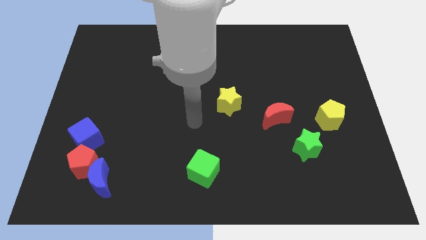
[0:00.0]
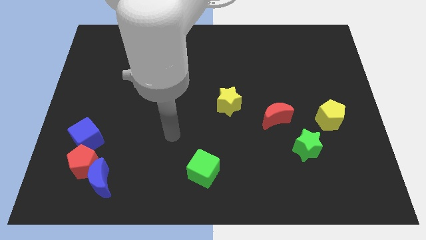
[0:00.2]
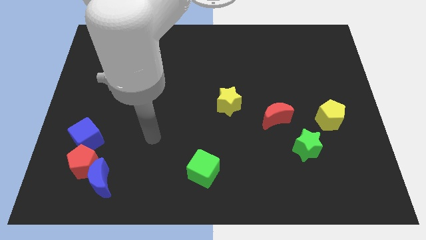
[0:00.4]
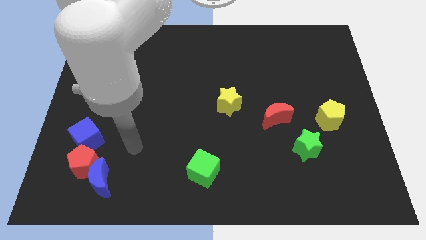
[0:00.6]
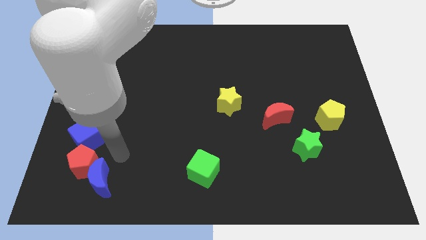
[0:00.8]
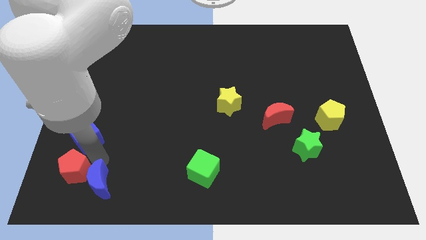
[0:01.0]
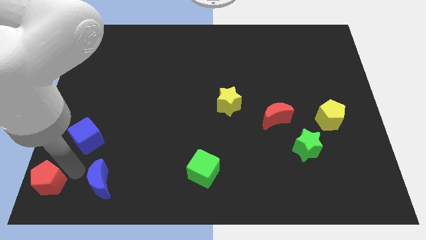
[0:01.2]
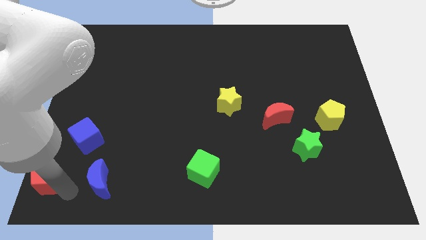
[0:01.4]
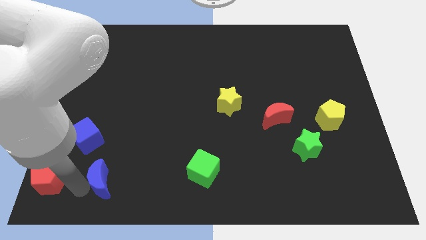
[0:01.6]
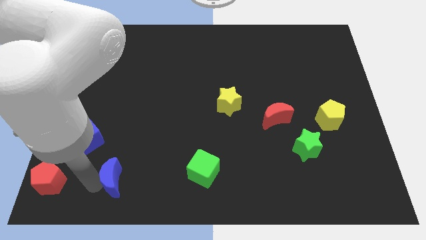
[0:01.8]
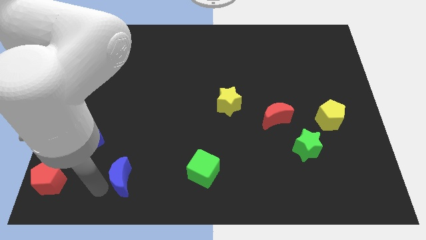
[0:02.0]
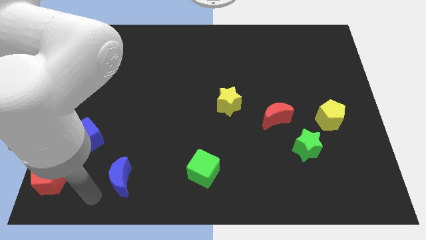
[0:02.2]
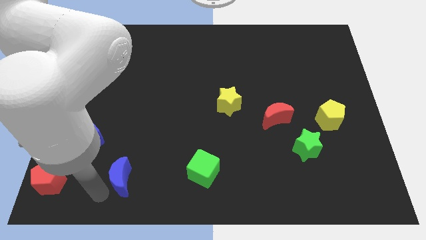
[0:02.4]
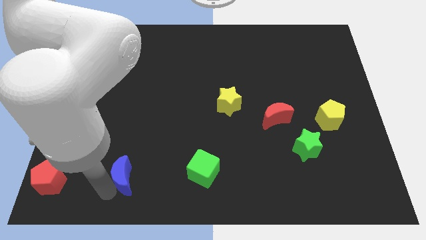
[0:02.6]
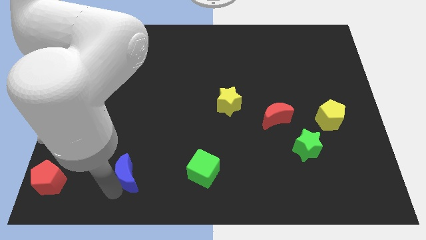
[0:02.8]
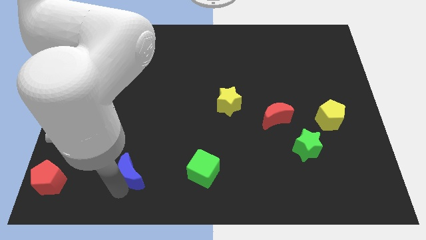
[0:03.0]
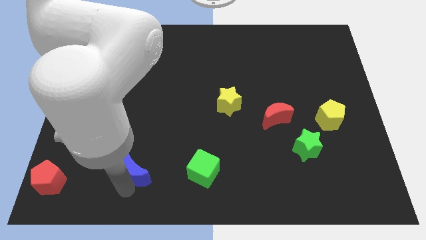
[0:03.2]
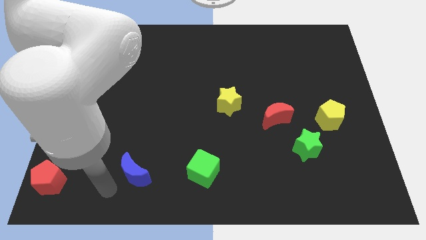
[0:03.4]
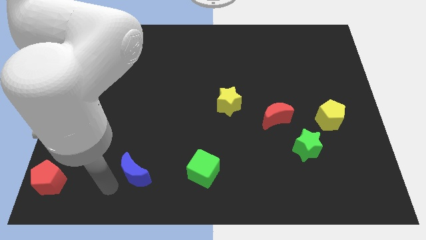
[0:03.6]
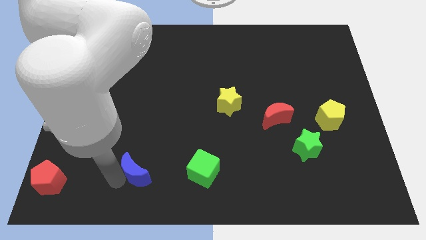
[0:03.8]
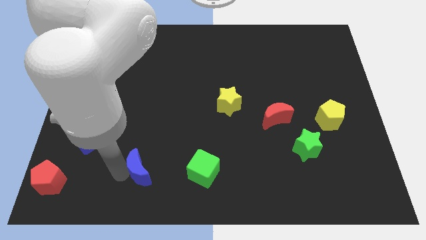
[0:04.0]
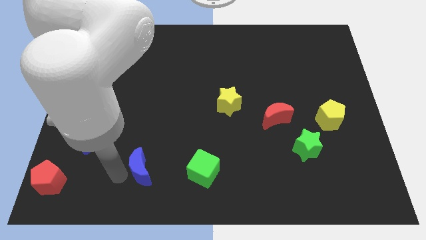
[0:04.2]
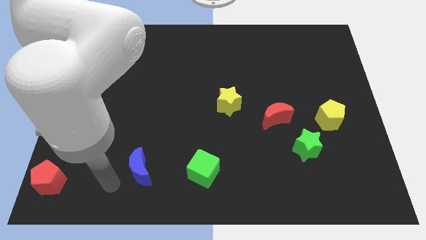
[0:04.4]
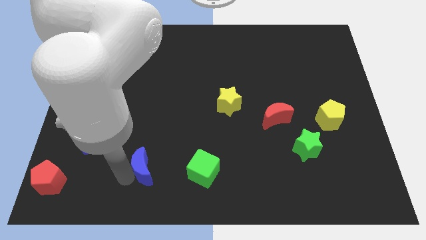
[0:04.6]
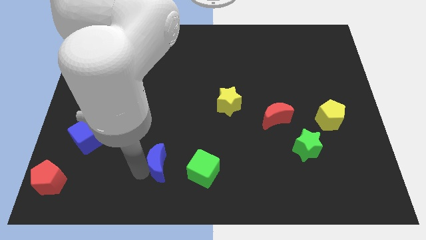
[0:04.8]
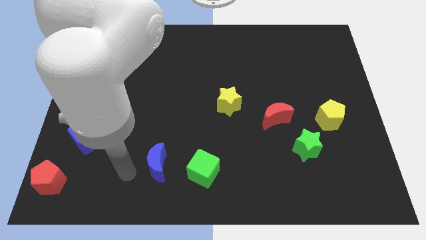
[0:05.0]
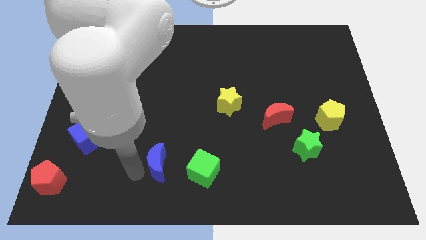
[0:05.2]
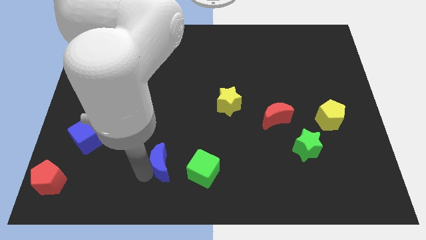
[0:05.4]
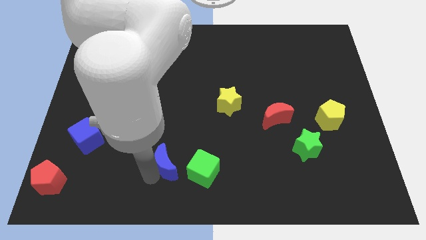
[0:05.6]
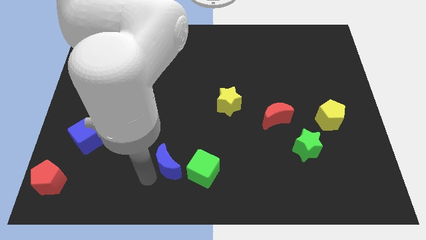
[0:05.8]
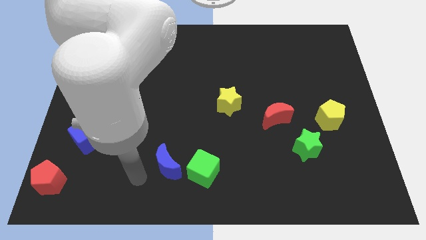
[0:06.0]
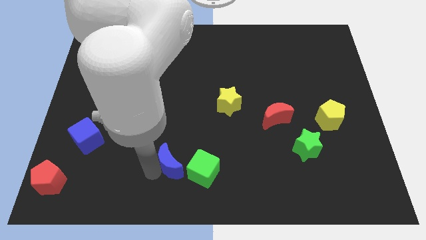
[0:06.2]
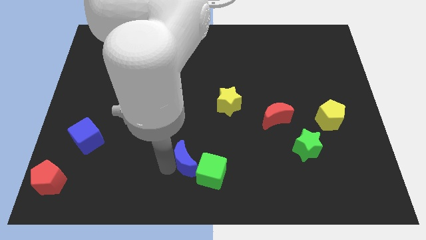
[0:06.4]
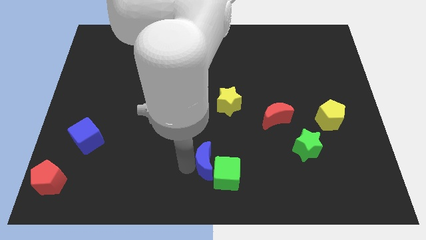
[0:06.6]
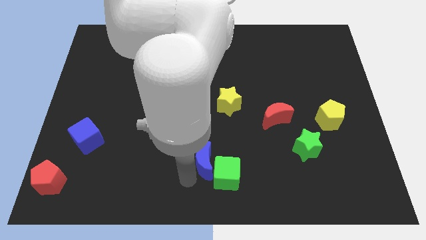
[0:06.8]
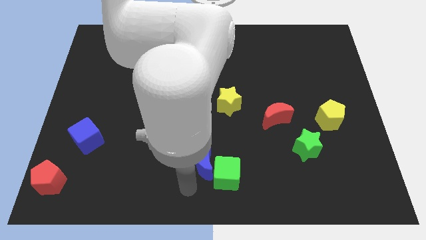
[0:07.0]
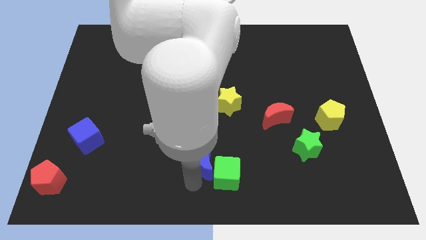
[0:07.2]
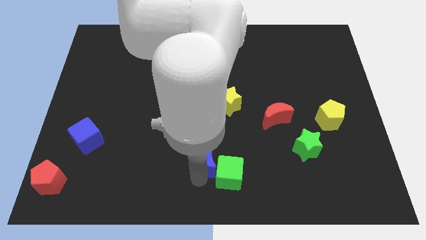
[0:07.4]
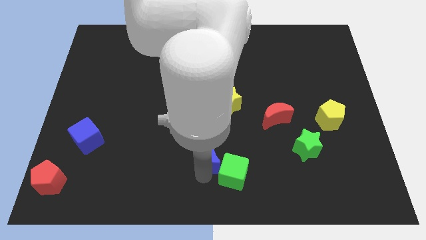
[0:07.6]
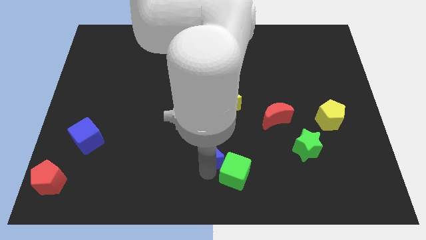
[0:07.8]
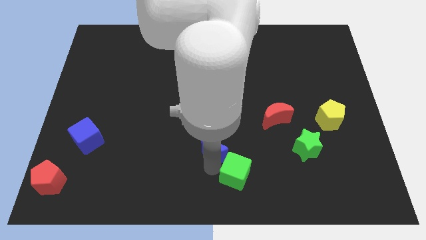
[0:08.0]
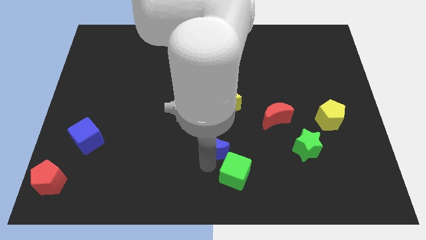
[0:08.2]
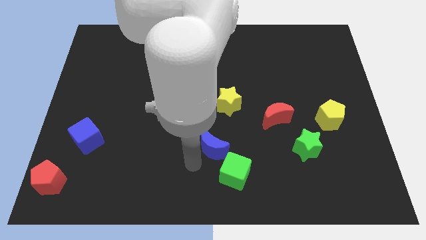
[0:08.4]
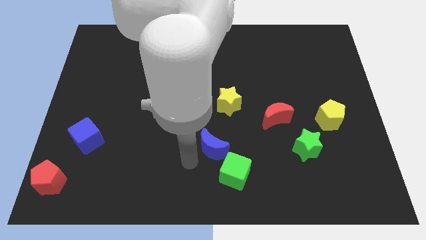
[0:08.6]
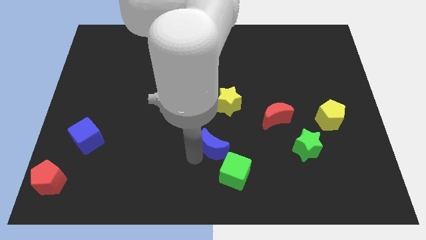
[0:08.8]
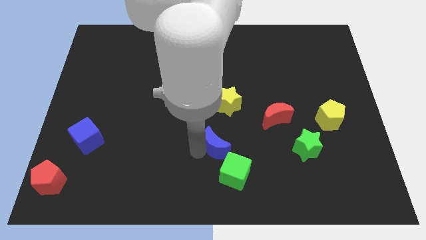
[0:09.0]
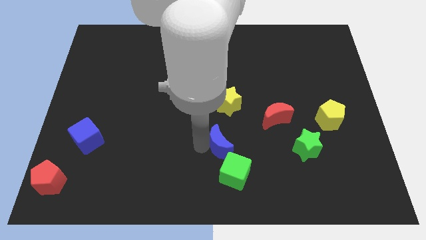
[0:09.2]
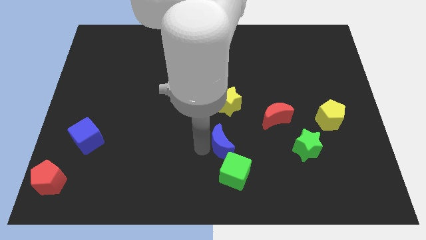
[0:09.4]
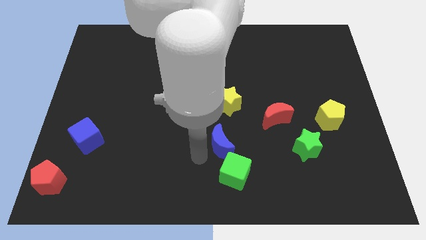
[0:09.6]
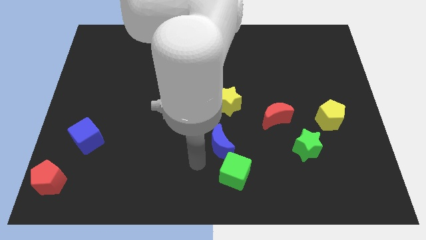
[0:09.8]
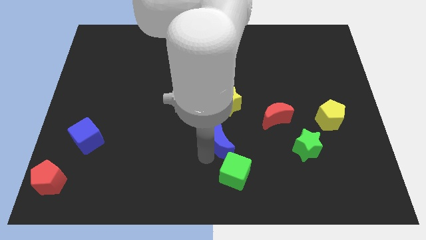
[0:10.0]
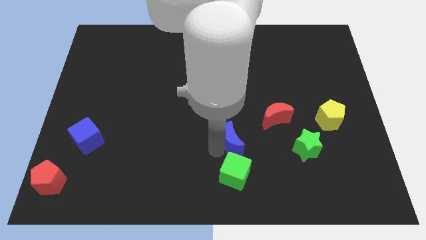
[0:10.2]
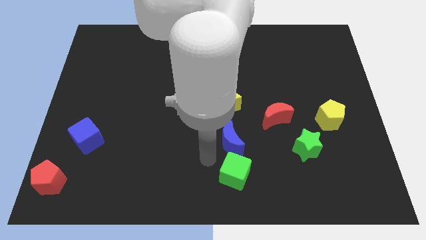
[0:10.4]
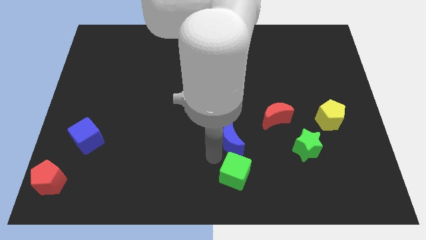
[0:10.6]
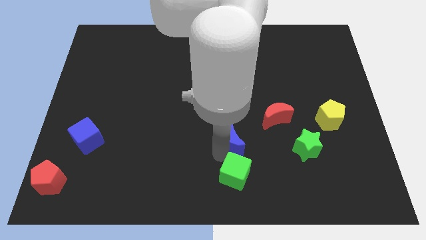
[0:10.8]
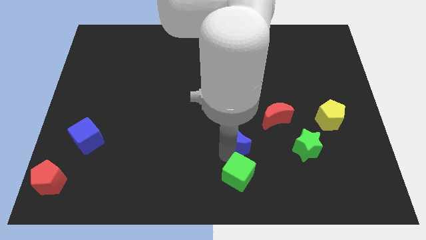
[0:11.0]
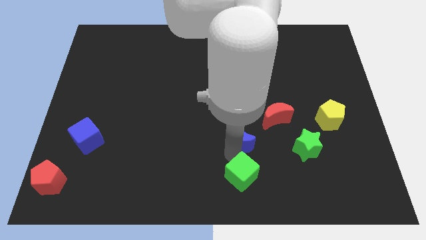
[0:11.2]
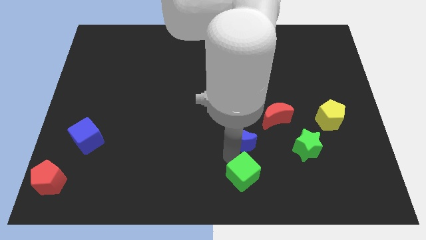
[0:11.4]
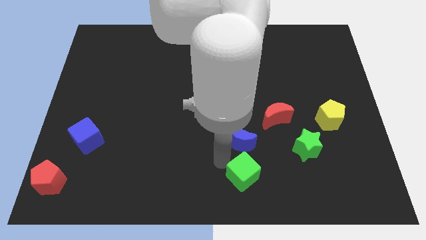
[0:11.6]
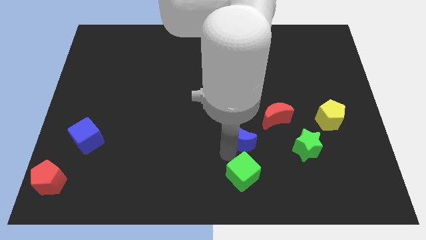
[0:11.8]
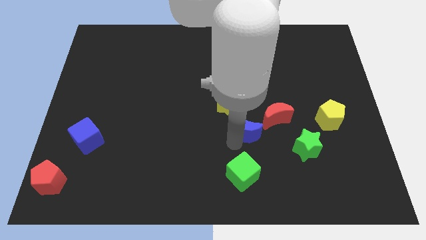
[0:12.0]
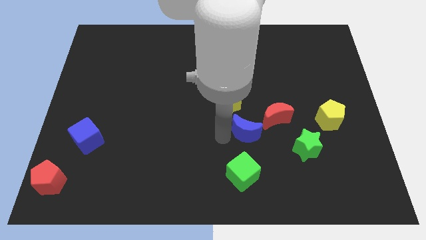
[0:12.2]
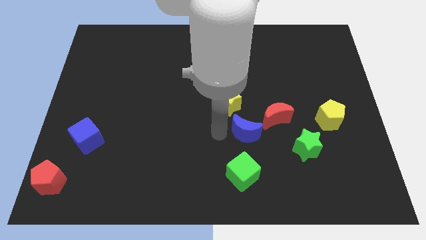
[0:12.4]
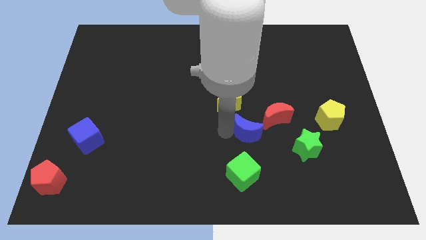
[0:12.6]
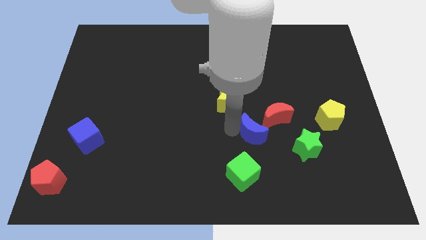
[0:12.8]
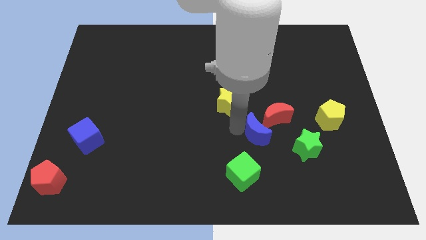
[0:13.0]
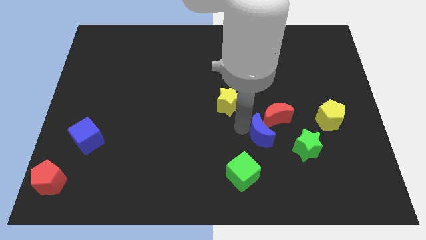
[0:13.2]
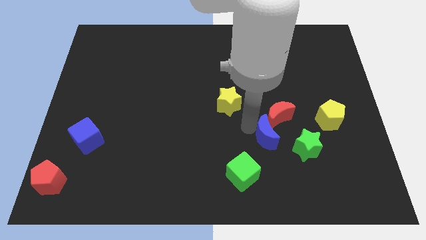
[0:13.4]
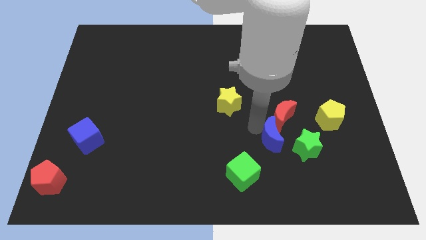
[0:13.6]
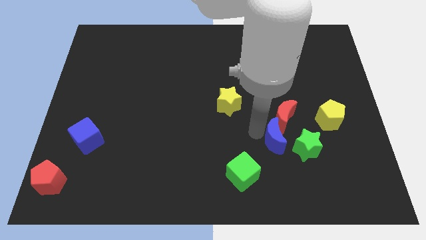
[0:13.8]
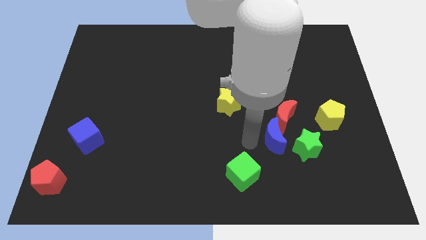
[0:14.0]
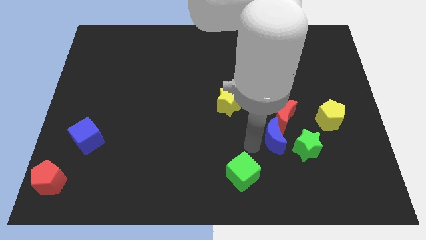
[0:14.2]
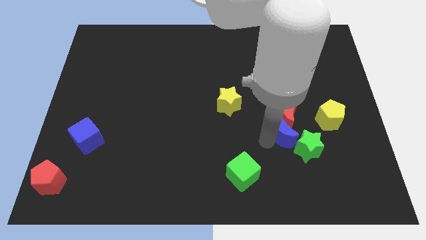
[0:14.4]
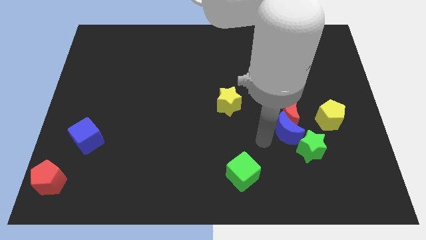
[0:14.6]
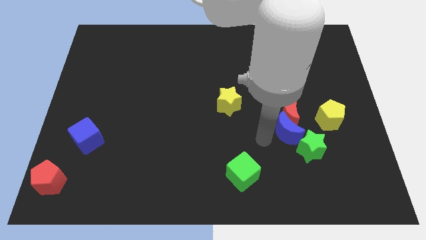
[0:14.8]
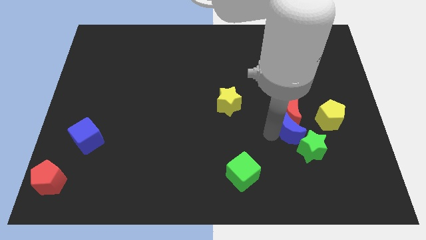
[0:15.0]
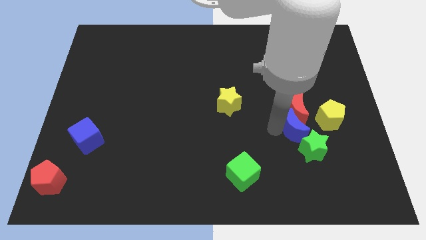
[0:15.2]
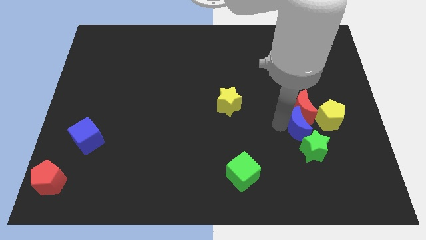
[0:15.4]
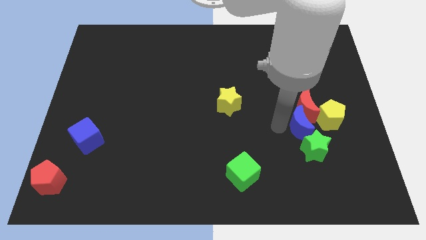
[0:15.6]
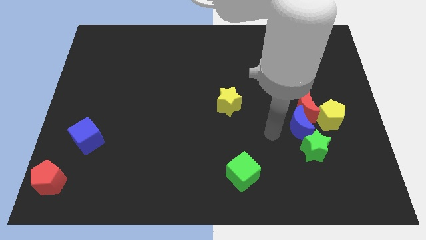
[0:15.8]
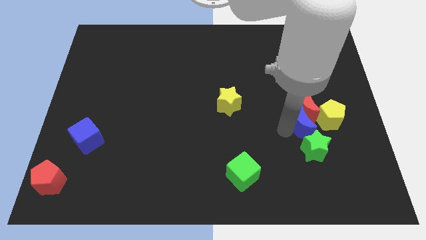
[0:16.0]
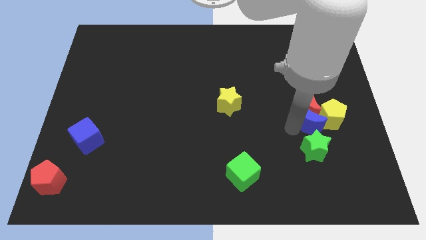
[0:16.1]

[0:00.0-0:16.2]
push the blue moon next to the yellow pentagon
